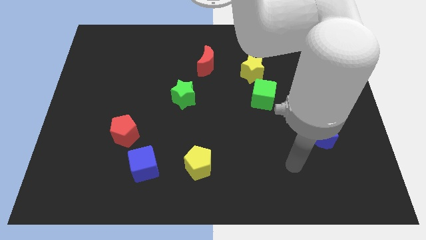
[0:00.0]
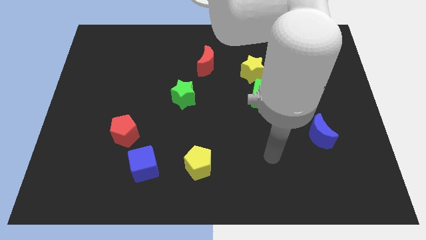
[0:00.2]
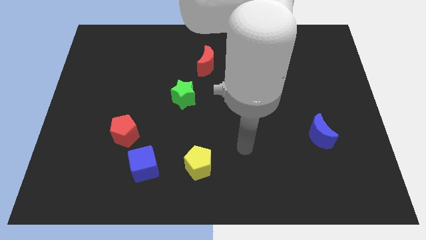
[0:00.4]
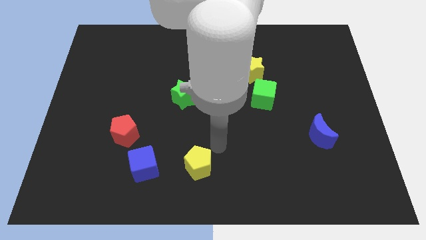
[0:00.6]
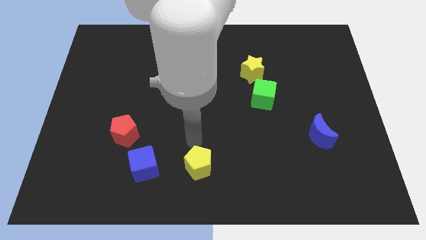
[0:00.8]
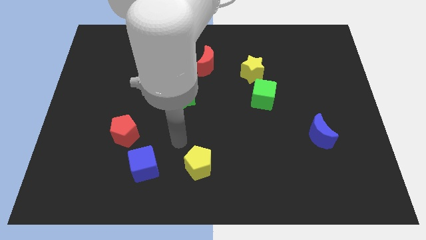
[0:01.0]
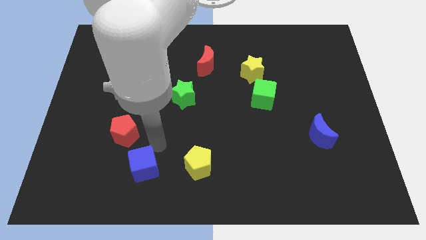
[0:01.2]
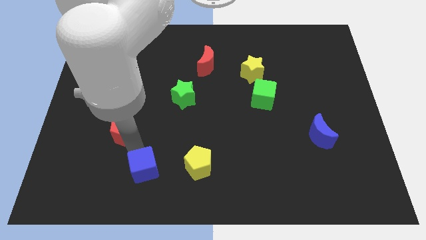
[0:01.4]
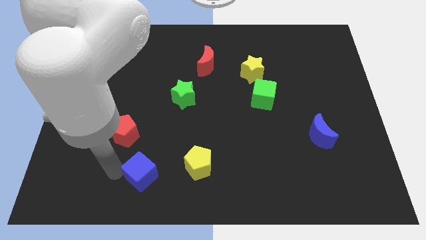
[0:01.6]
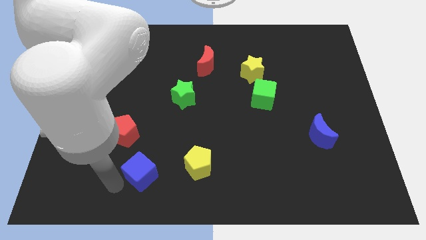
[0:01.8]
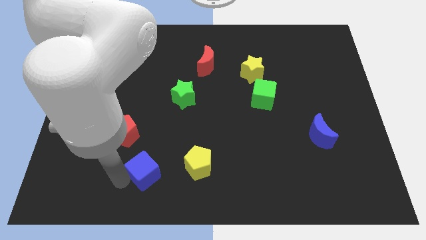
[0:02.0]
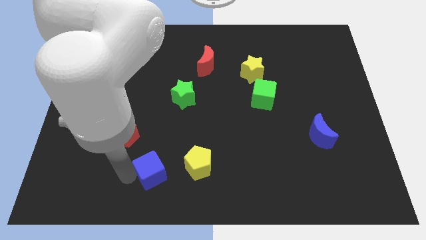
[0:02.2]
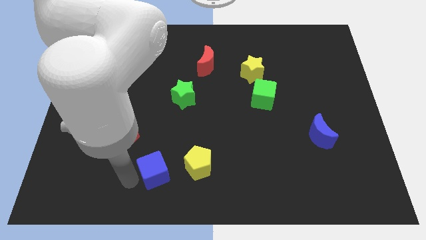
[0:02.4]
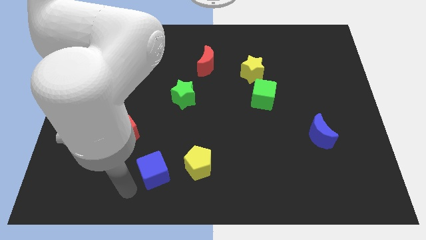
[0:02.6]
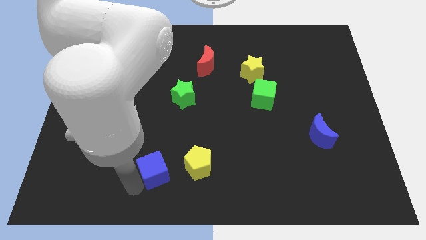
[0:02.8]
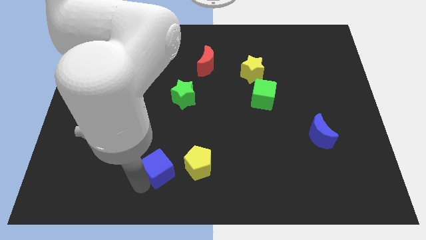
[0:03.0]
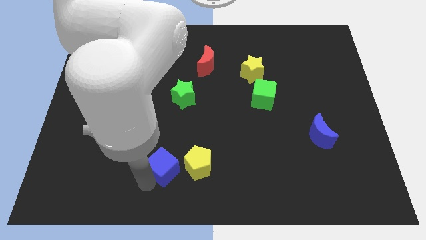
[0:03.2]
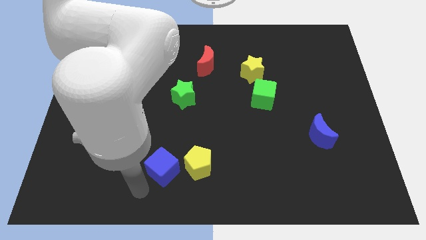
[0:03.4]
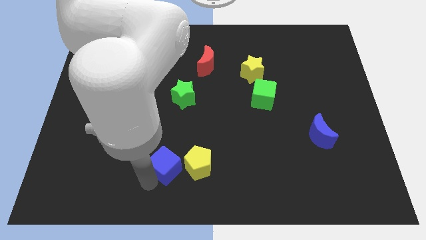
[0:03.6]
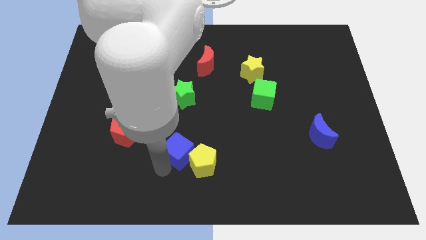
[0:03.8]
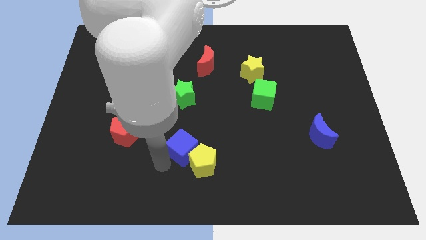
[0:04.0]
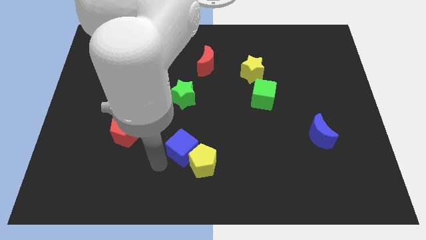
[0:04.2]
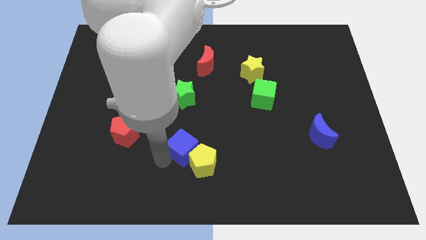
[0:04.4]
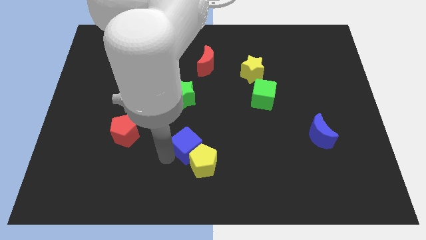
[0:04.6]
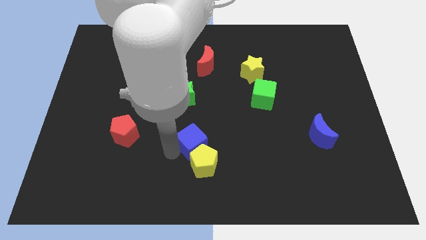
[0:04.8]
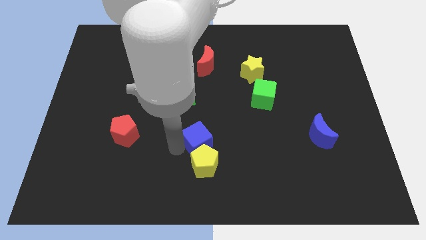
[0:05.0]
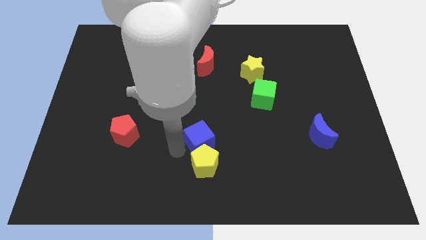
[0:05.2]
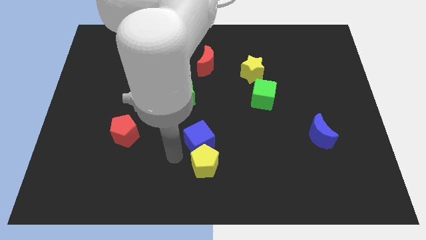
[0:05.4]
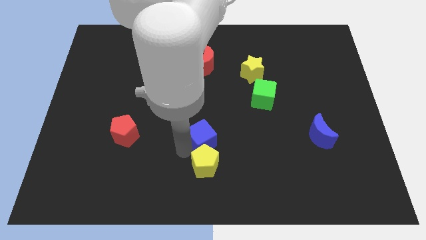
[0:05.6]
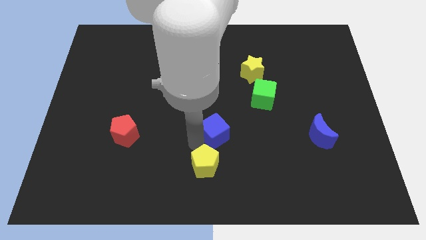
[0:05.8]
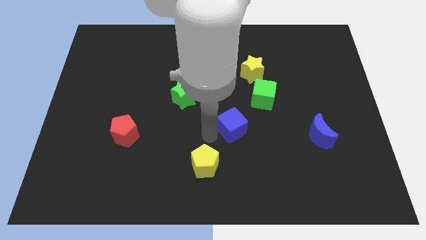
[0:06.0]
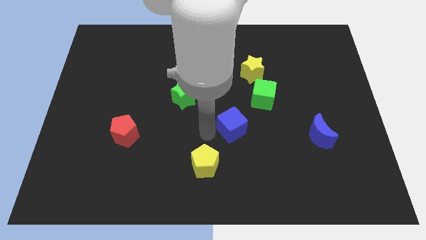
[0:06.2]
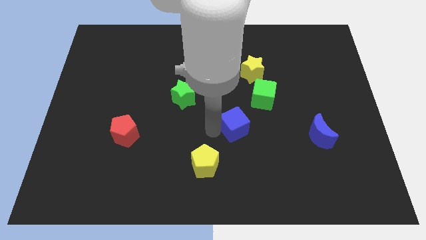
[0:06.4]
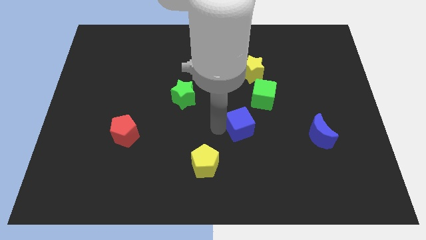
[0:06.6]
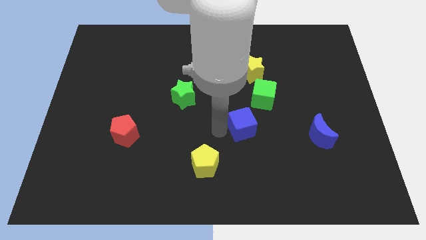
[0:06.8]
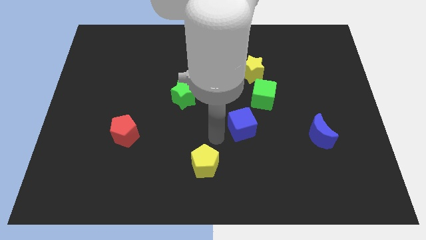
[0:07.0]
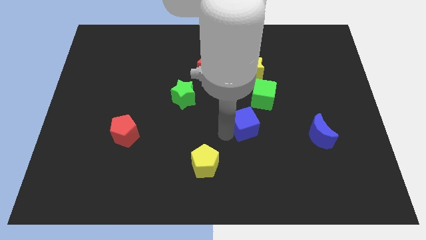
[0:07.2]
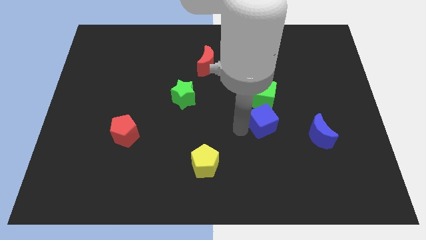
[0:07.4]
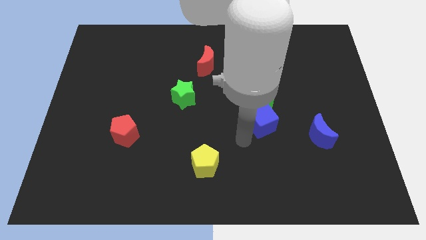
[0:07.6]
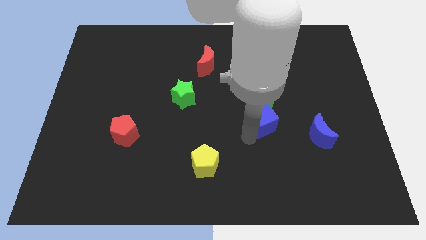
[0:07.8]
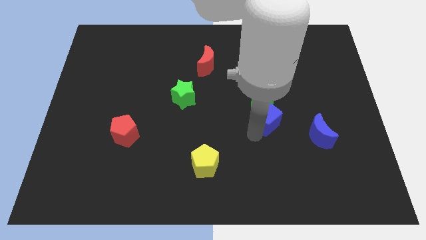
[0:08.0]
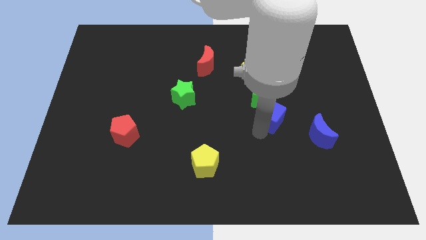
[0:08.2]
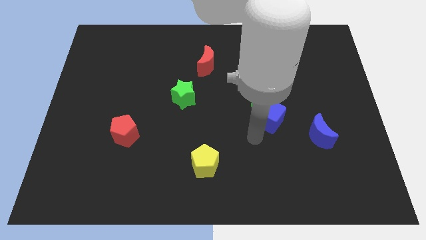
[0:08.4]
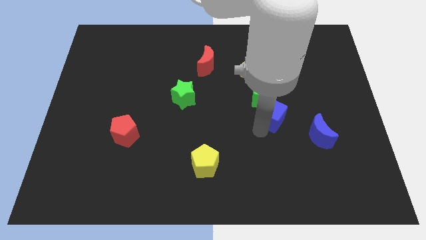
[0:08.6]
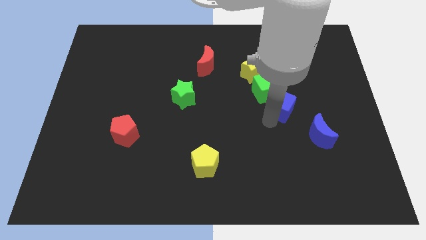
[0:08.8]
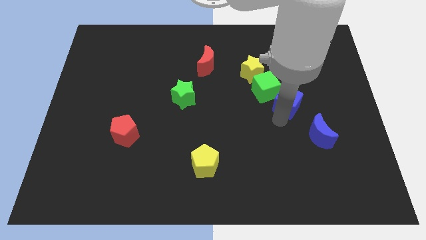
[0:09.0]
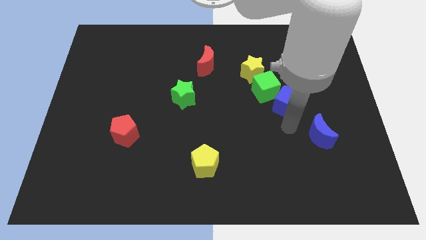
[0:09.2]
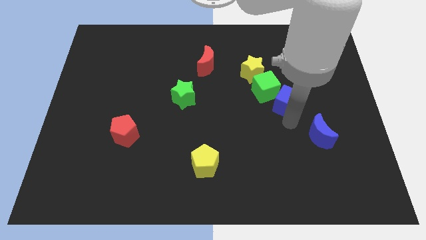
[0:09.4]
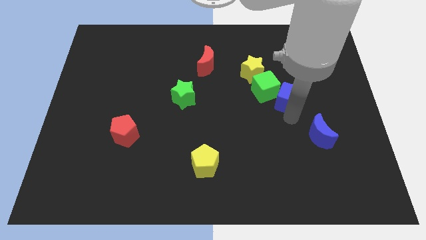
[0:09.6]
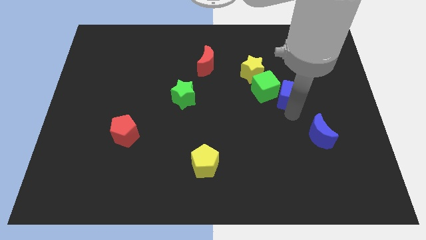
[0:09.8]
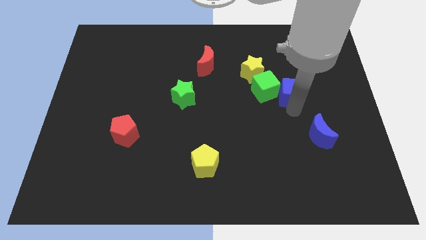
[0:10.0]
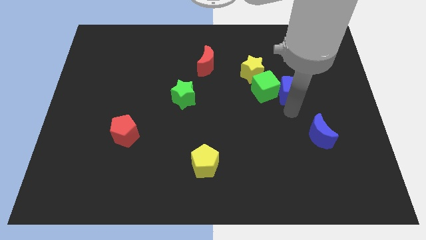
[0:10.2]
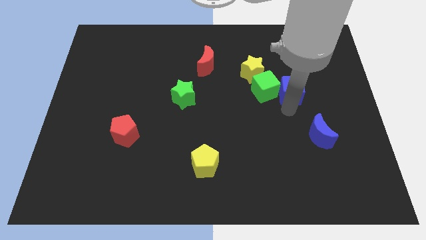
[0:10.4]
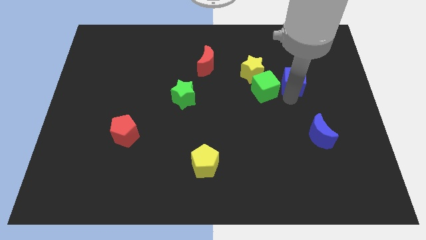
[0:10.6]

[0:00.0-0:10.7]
put the blue cube to the right of the yellow star
